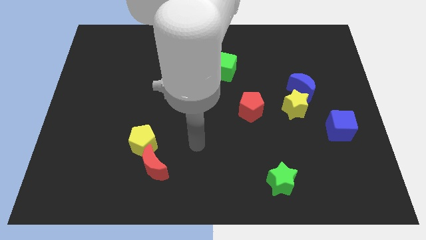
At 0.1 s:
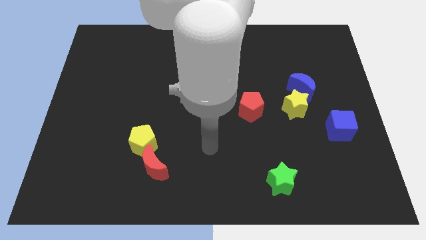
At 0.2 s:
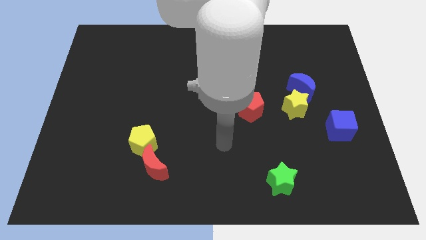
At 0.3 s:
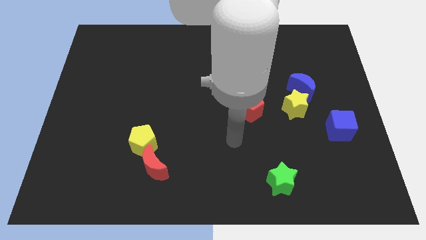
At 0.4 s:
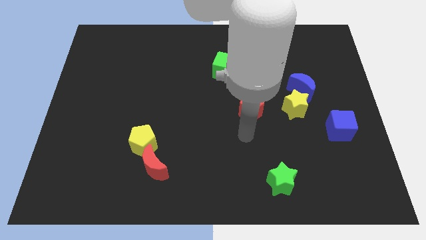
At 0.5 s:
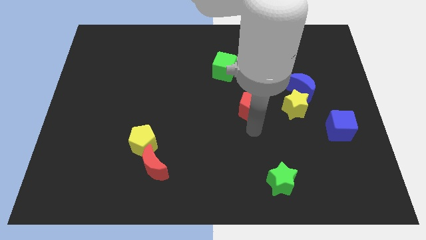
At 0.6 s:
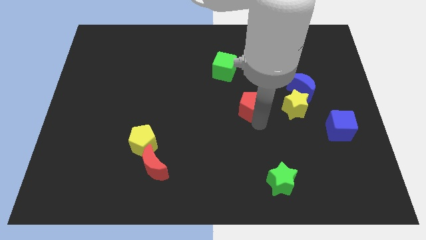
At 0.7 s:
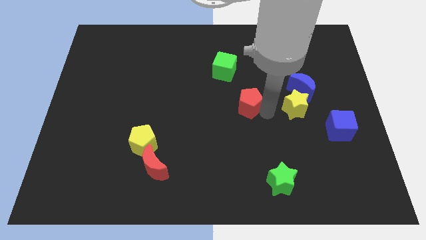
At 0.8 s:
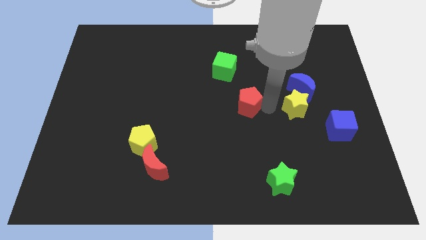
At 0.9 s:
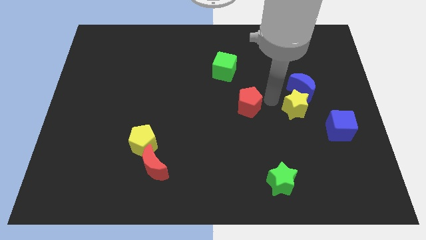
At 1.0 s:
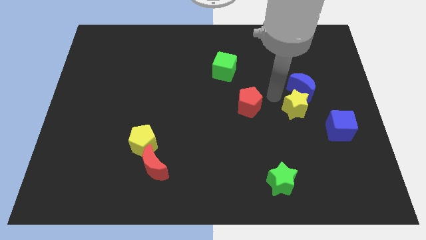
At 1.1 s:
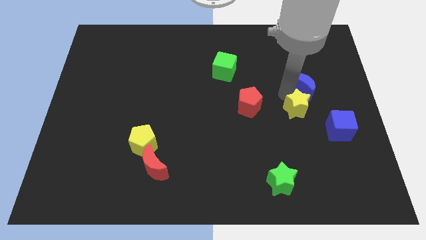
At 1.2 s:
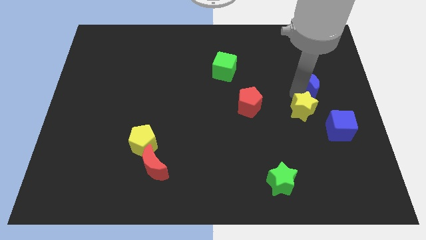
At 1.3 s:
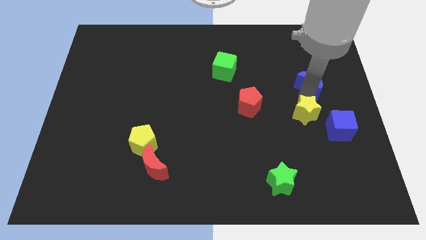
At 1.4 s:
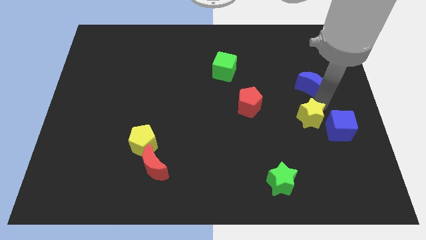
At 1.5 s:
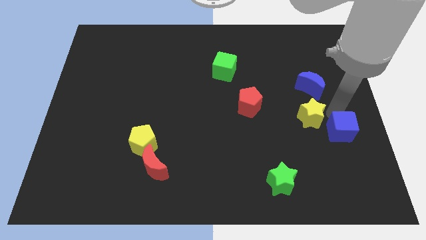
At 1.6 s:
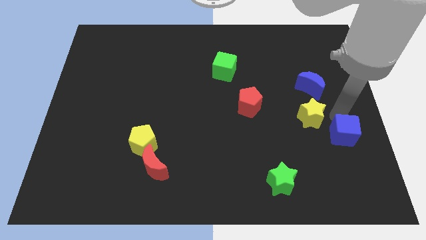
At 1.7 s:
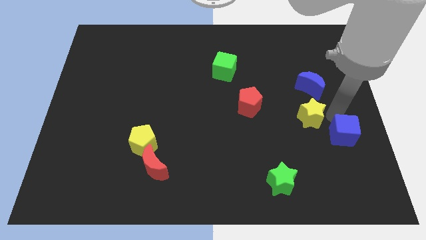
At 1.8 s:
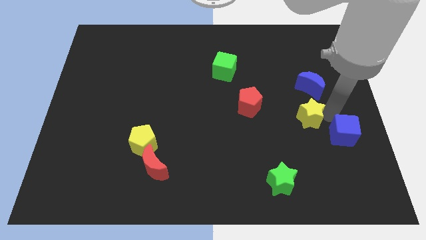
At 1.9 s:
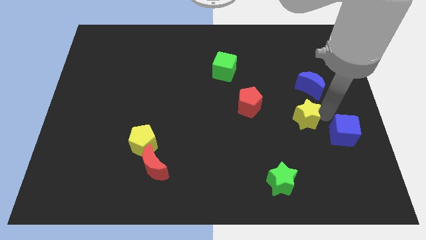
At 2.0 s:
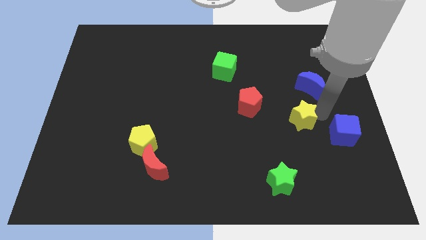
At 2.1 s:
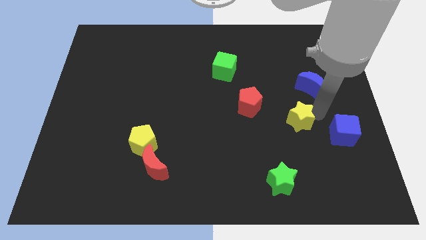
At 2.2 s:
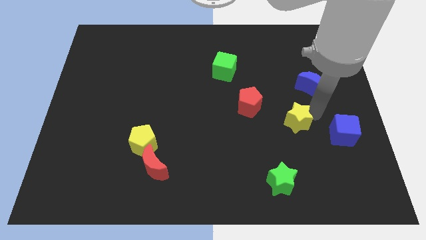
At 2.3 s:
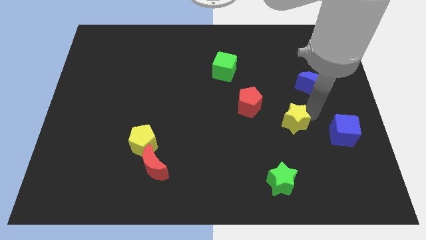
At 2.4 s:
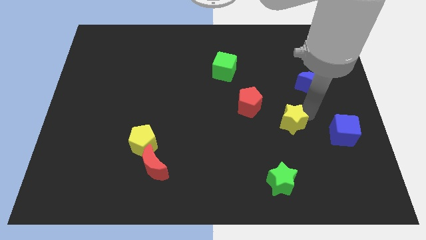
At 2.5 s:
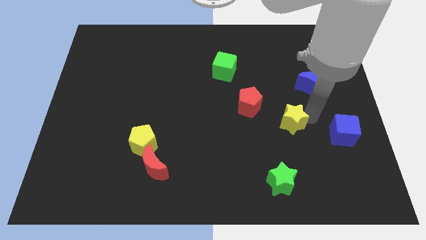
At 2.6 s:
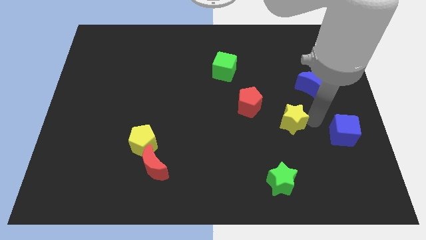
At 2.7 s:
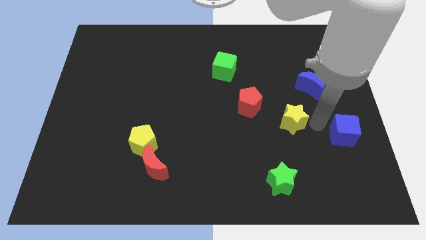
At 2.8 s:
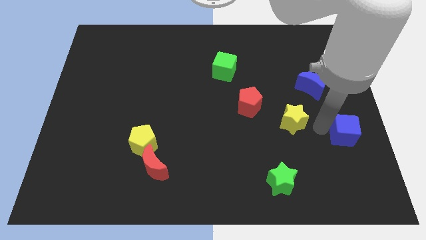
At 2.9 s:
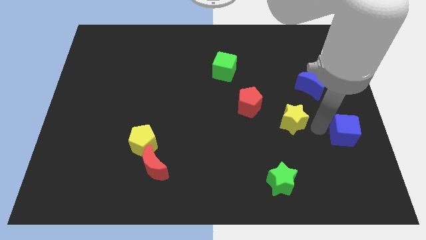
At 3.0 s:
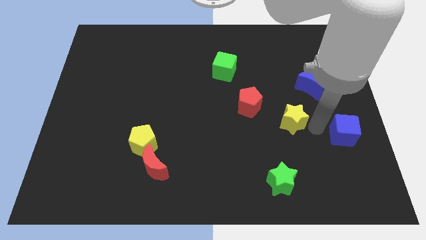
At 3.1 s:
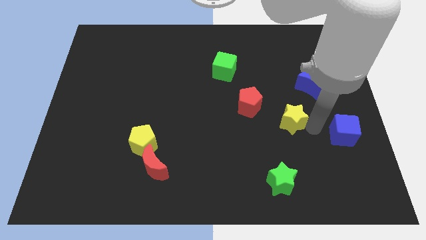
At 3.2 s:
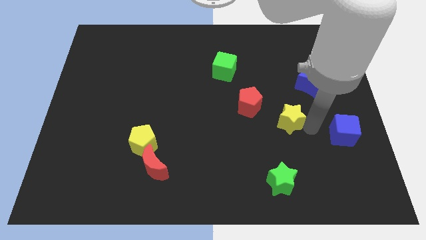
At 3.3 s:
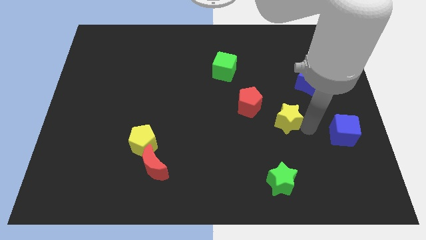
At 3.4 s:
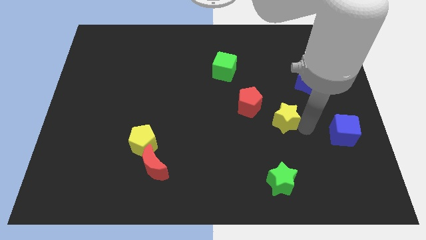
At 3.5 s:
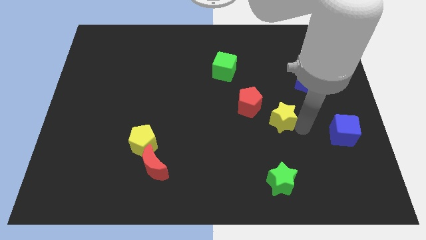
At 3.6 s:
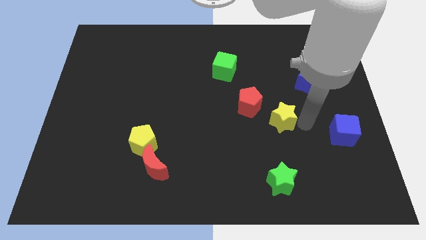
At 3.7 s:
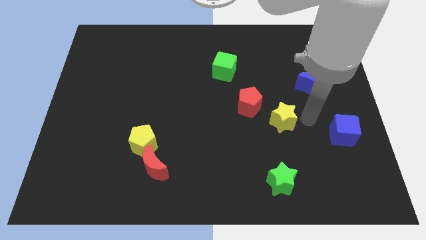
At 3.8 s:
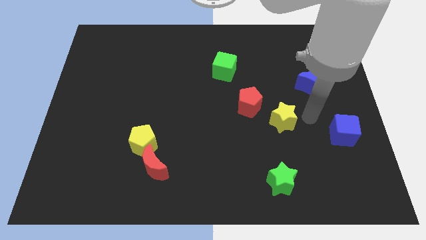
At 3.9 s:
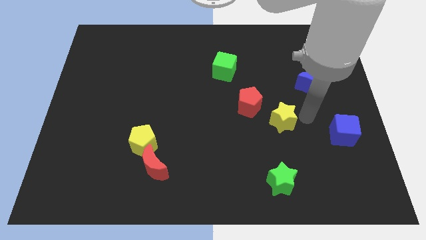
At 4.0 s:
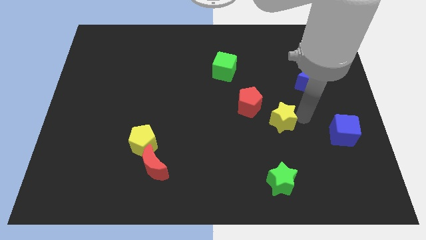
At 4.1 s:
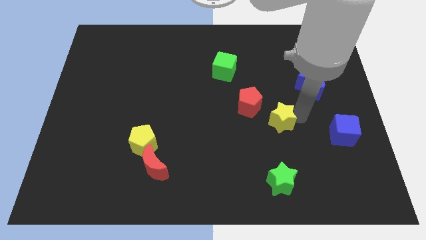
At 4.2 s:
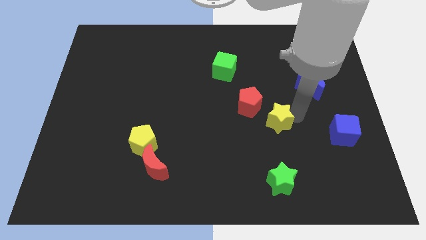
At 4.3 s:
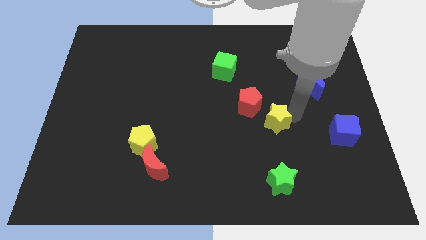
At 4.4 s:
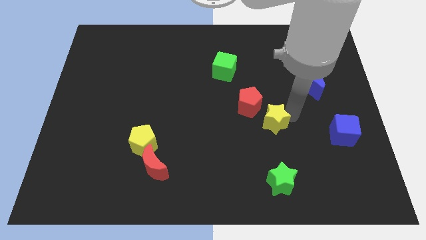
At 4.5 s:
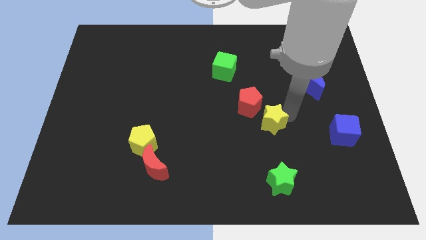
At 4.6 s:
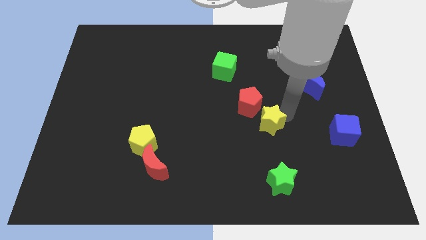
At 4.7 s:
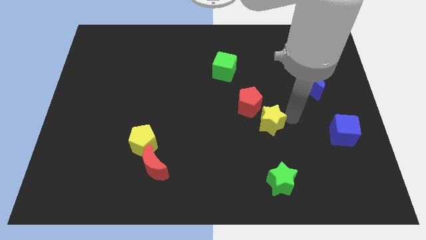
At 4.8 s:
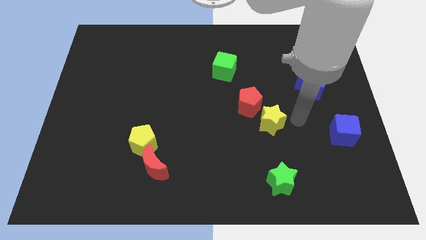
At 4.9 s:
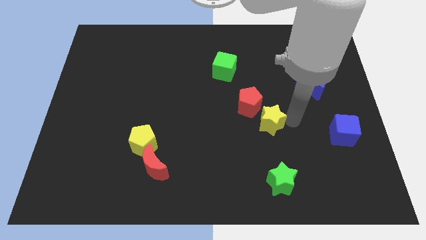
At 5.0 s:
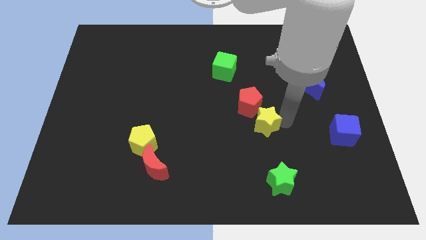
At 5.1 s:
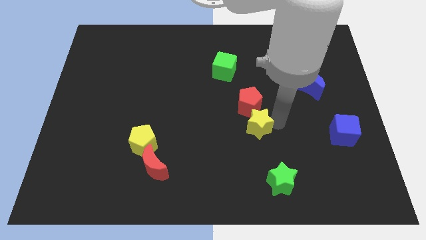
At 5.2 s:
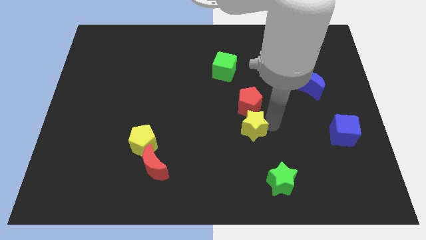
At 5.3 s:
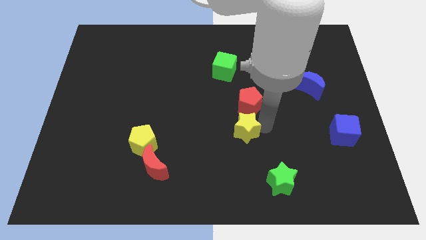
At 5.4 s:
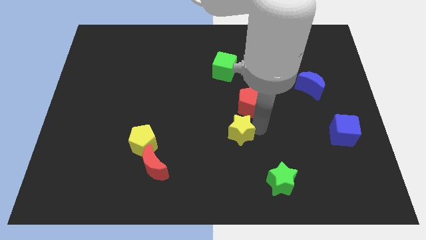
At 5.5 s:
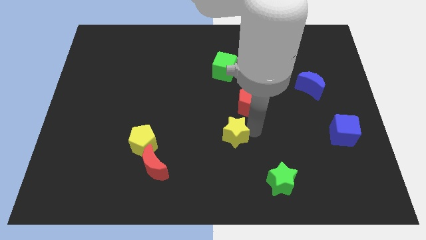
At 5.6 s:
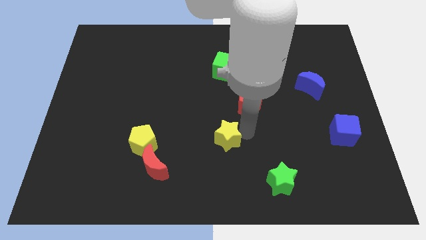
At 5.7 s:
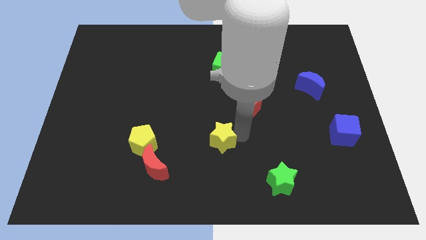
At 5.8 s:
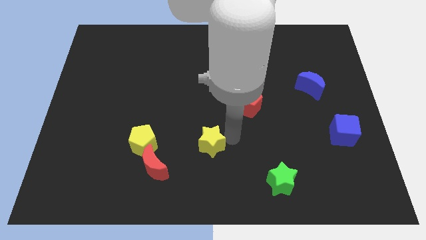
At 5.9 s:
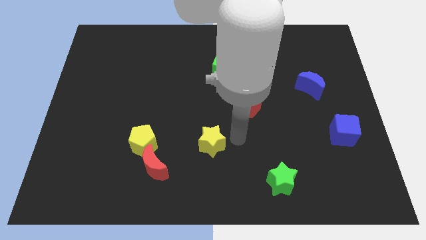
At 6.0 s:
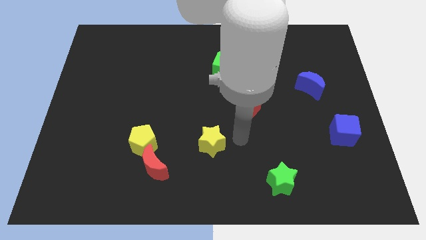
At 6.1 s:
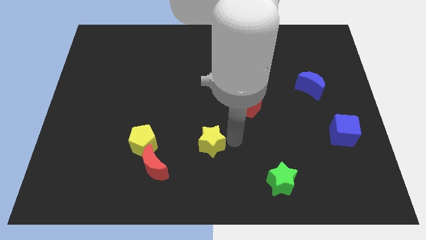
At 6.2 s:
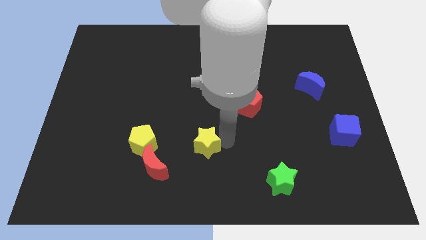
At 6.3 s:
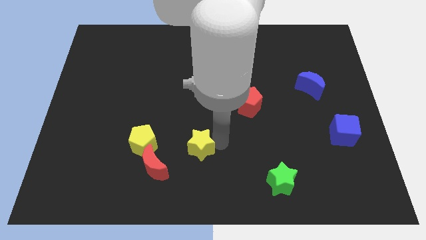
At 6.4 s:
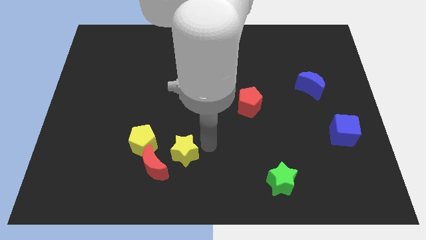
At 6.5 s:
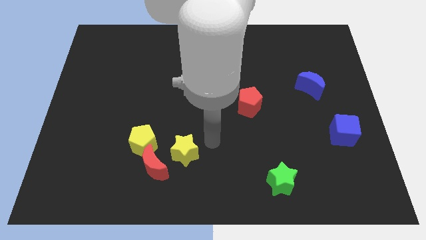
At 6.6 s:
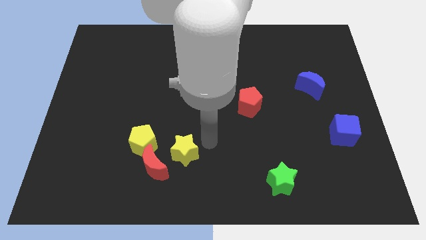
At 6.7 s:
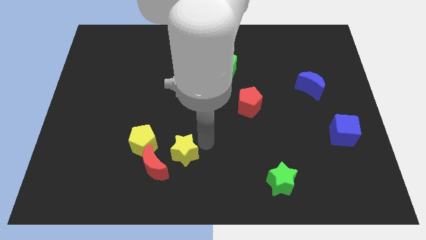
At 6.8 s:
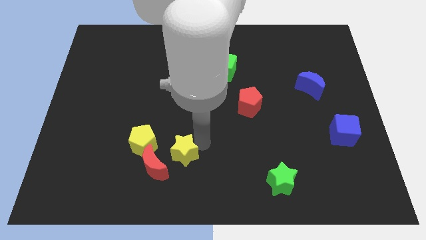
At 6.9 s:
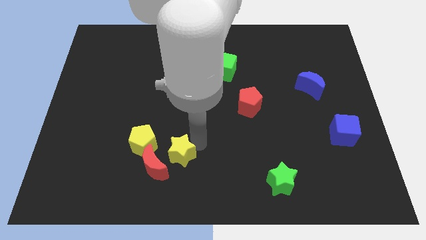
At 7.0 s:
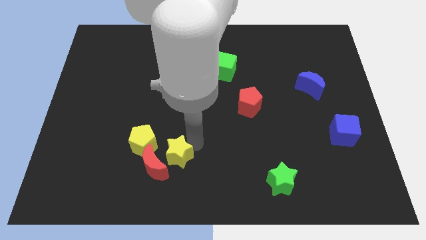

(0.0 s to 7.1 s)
move the yellow star next to the red moon
